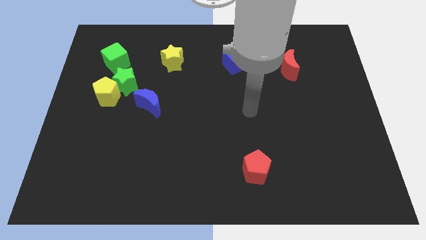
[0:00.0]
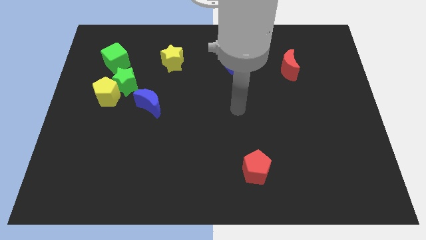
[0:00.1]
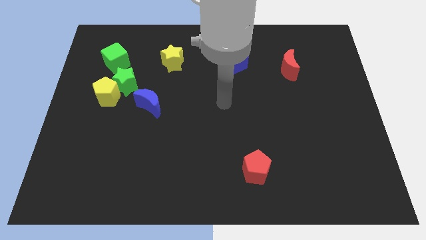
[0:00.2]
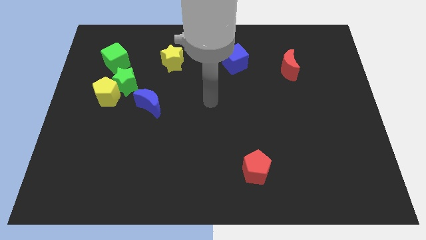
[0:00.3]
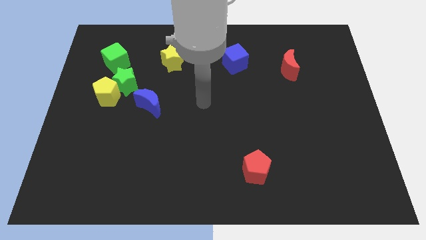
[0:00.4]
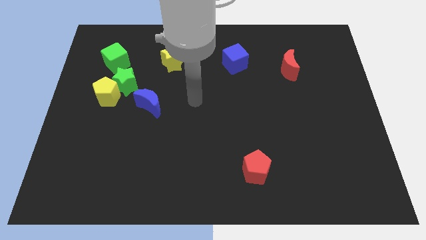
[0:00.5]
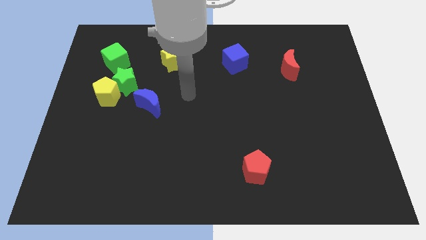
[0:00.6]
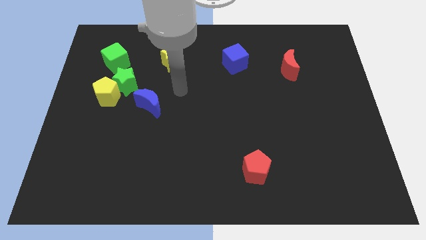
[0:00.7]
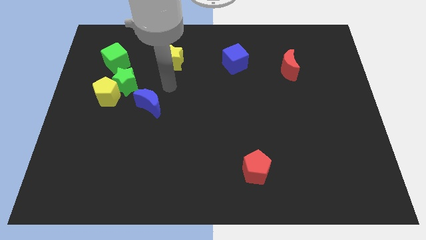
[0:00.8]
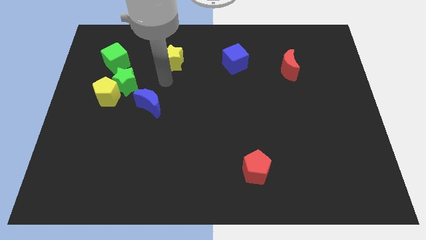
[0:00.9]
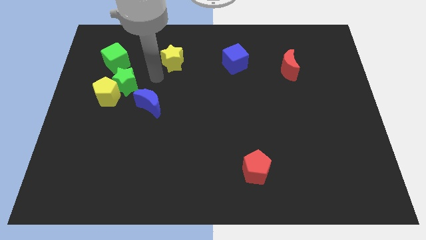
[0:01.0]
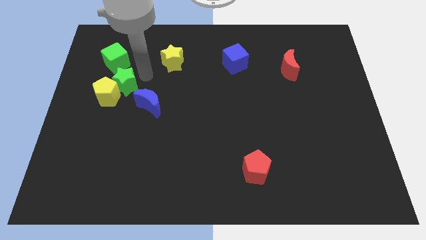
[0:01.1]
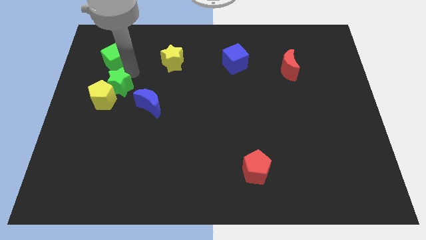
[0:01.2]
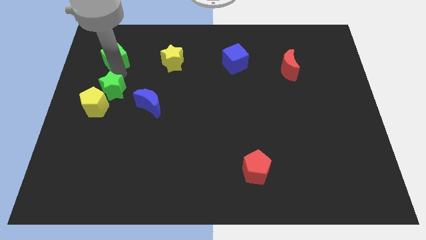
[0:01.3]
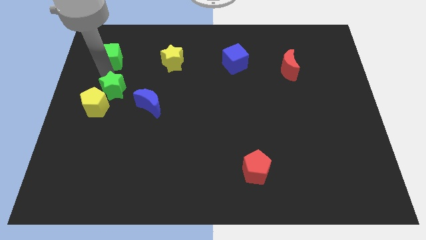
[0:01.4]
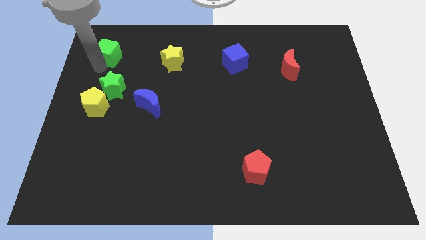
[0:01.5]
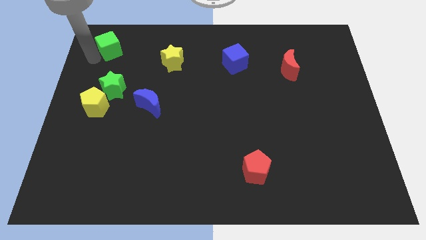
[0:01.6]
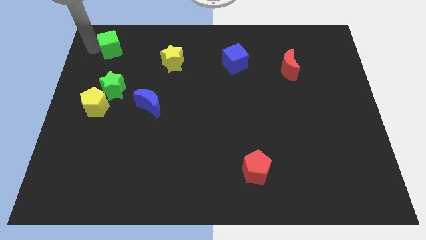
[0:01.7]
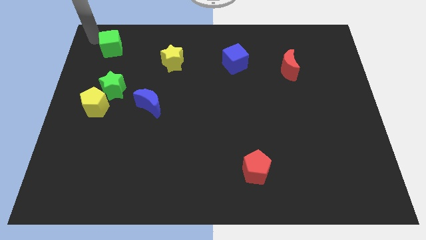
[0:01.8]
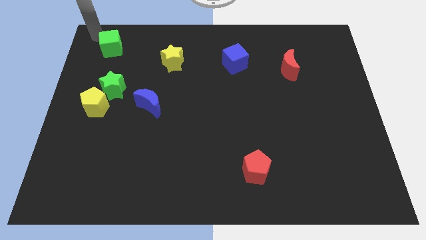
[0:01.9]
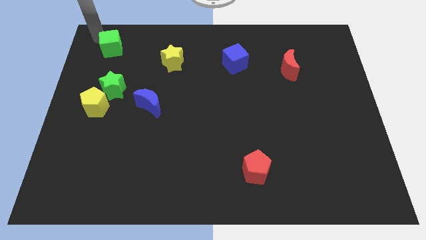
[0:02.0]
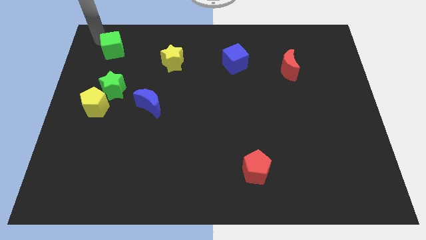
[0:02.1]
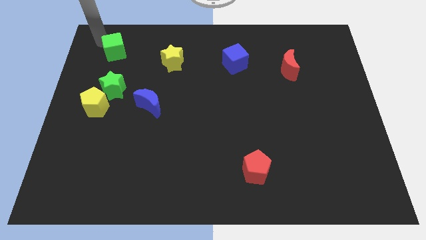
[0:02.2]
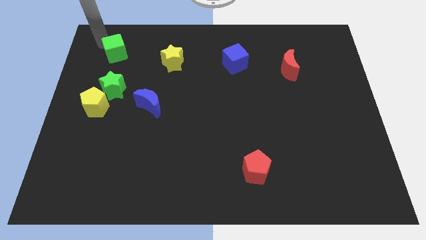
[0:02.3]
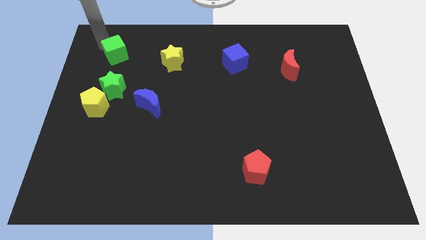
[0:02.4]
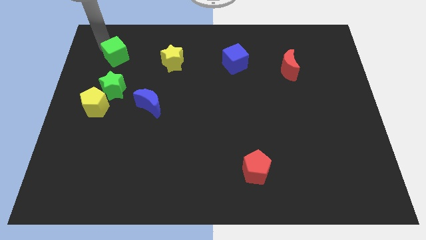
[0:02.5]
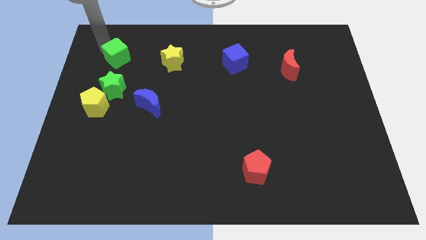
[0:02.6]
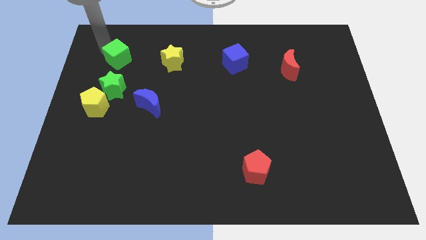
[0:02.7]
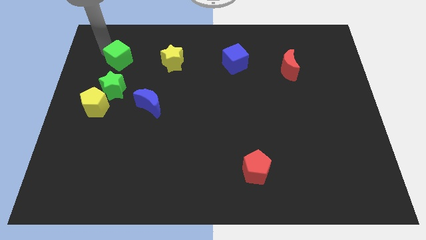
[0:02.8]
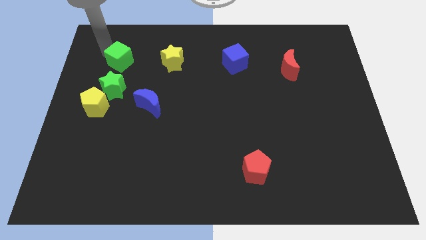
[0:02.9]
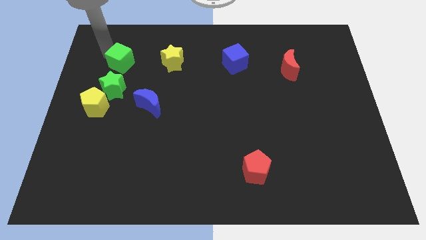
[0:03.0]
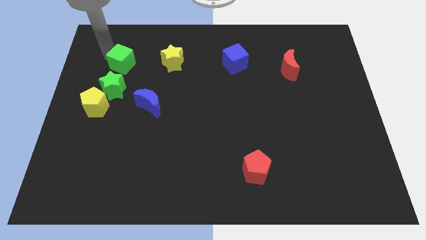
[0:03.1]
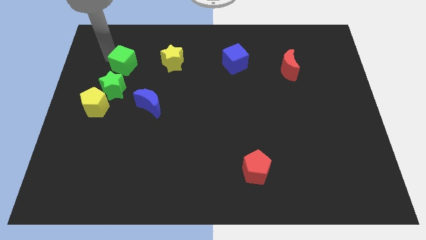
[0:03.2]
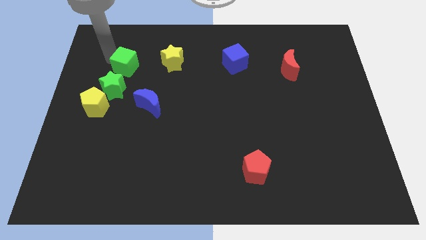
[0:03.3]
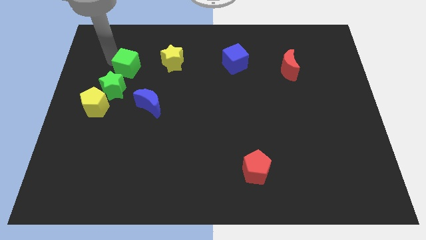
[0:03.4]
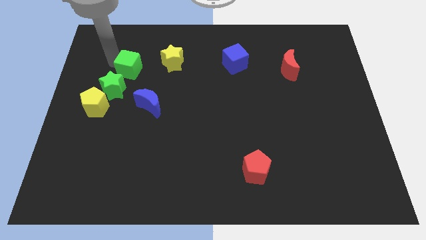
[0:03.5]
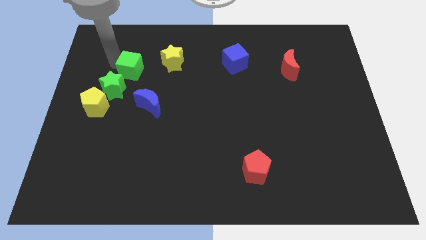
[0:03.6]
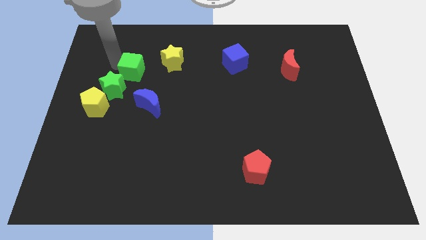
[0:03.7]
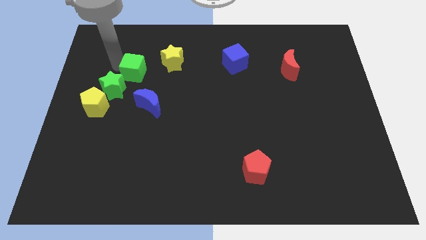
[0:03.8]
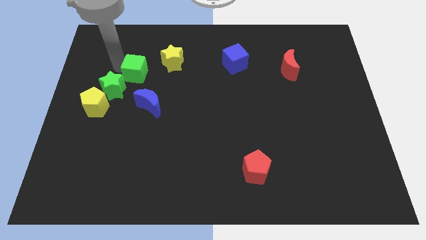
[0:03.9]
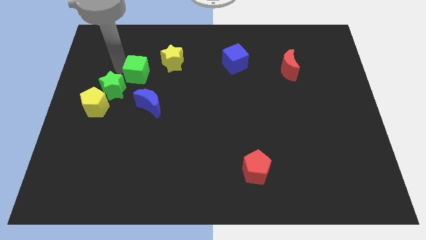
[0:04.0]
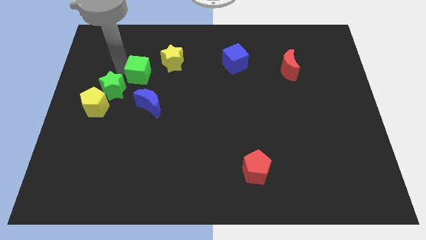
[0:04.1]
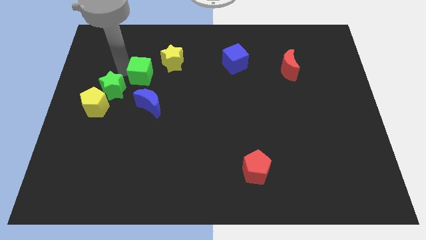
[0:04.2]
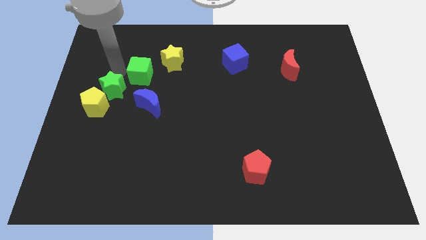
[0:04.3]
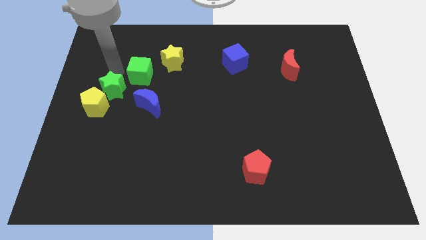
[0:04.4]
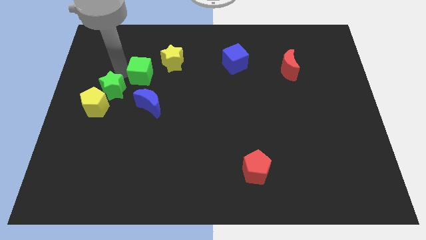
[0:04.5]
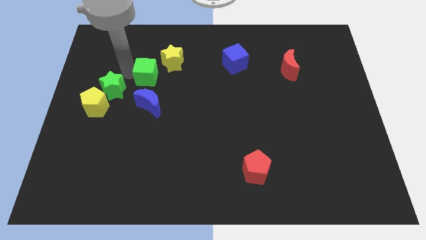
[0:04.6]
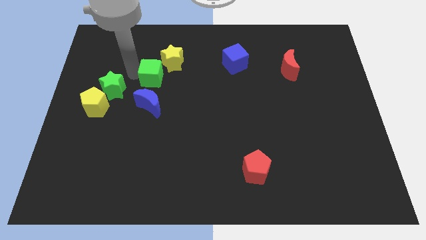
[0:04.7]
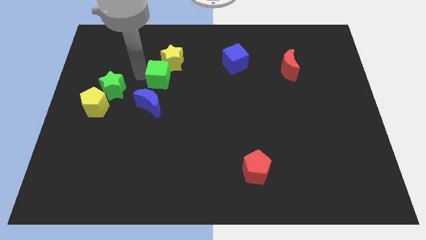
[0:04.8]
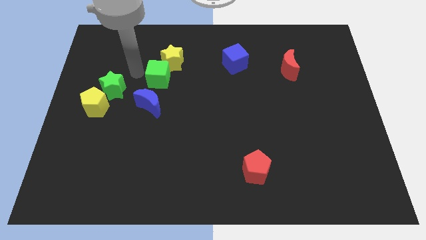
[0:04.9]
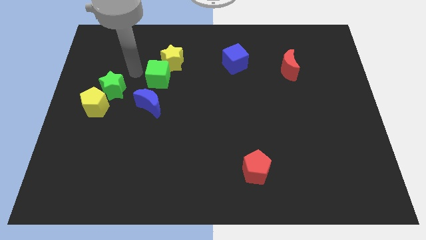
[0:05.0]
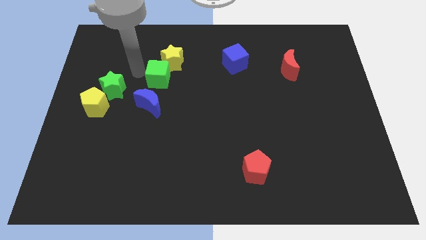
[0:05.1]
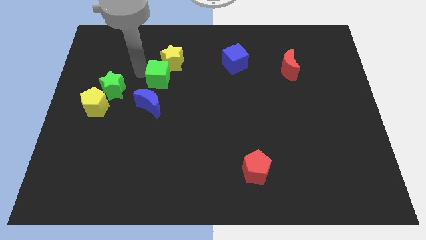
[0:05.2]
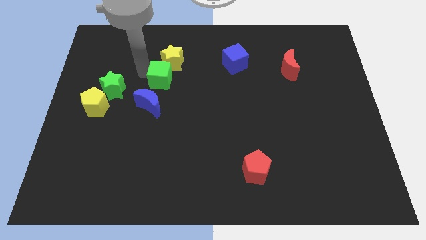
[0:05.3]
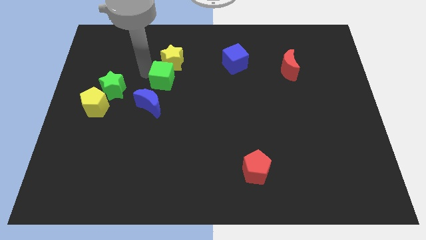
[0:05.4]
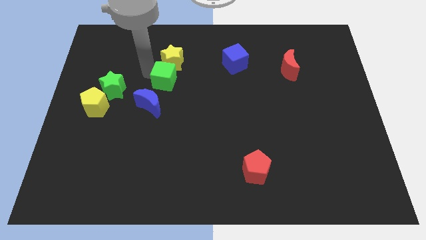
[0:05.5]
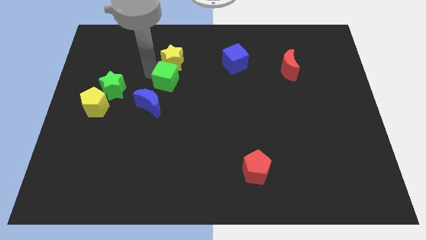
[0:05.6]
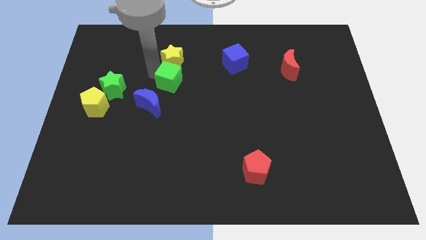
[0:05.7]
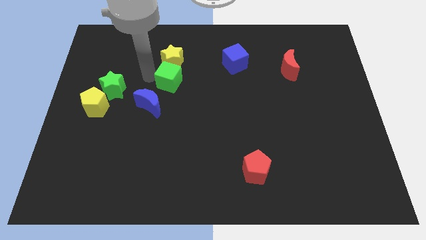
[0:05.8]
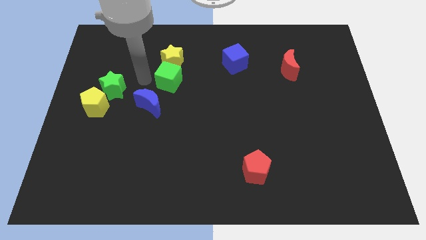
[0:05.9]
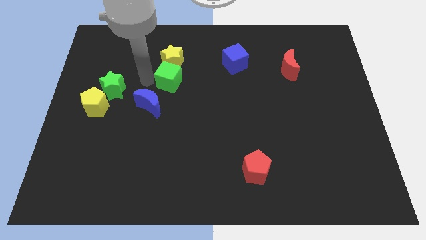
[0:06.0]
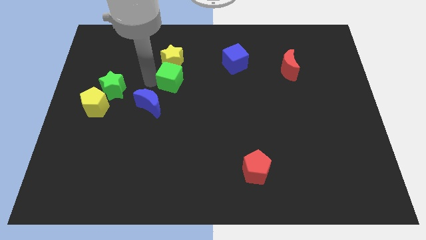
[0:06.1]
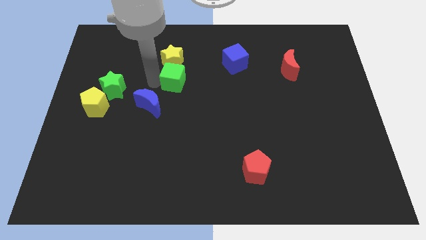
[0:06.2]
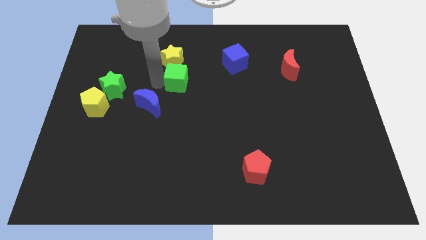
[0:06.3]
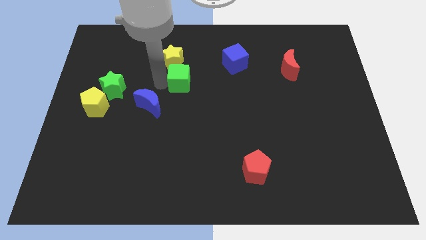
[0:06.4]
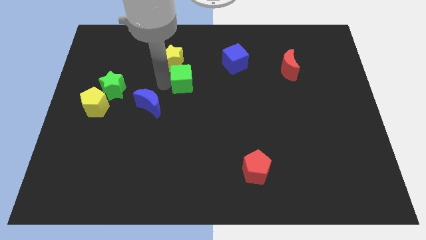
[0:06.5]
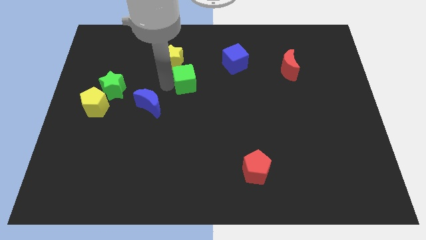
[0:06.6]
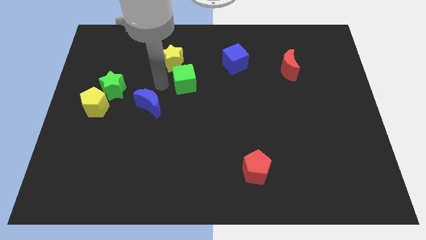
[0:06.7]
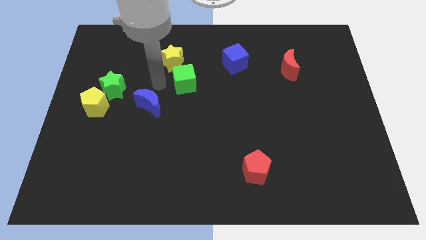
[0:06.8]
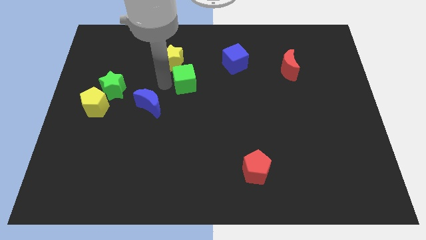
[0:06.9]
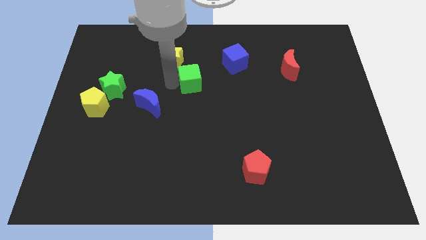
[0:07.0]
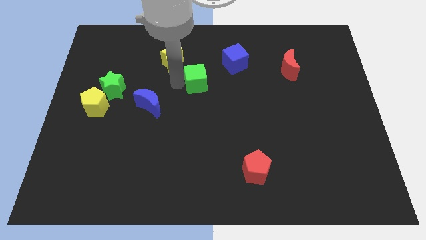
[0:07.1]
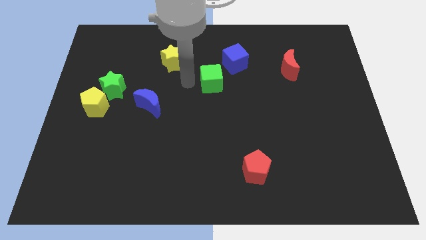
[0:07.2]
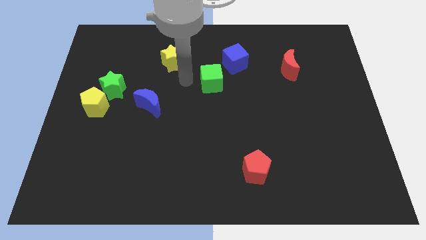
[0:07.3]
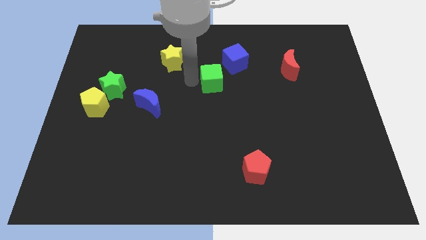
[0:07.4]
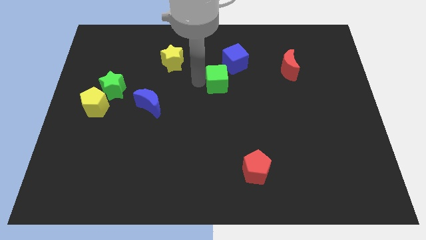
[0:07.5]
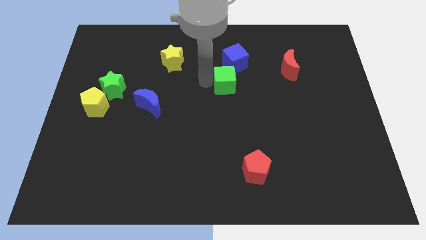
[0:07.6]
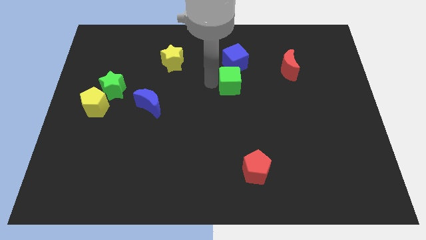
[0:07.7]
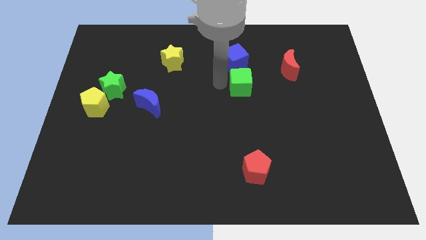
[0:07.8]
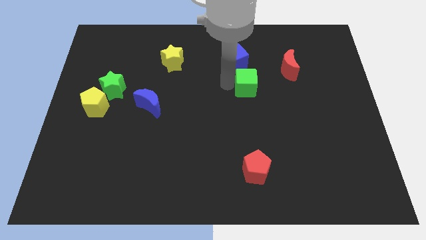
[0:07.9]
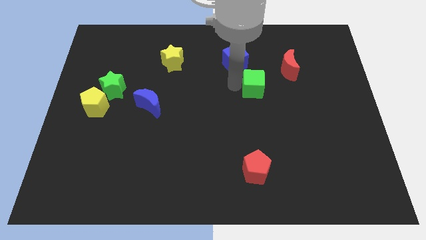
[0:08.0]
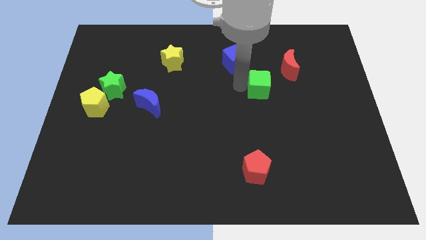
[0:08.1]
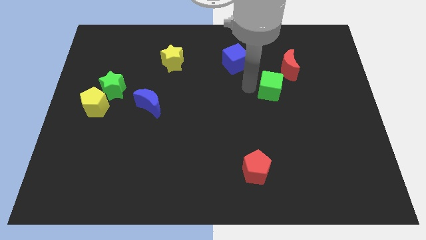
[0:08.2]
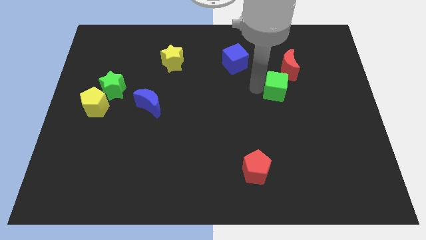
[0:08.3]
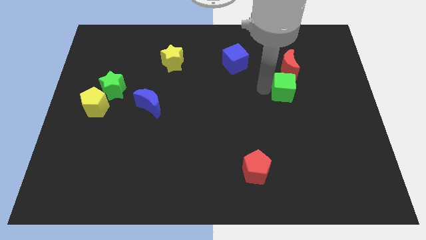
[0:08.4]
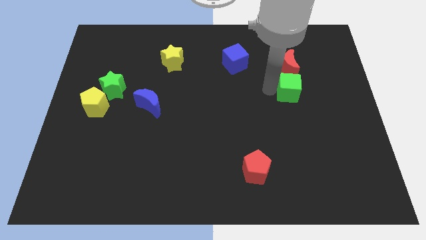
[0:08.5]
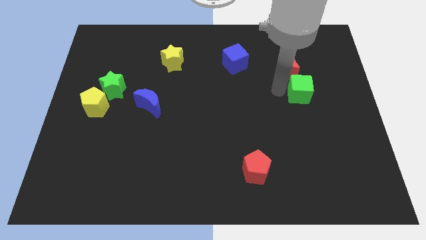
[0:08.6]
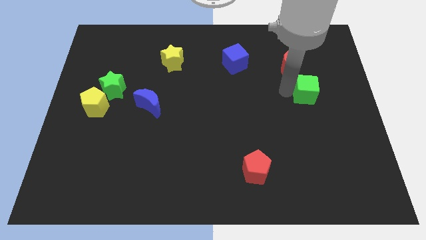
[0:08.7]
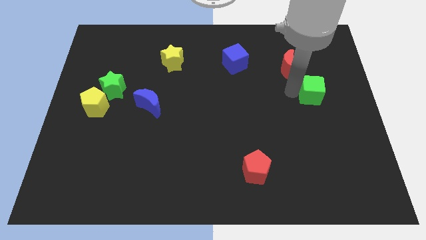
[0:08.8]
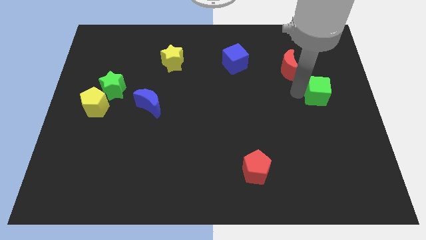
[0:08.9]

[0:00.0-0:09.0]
slide the green cube to the center right
